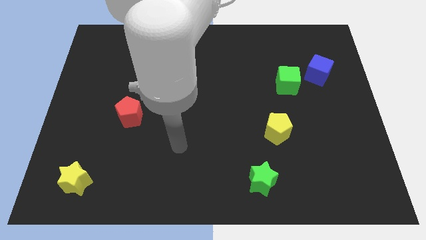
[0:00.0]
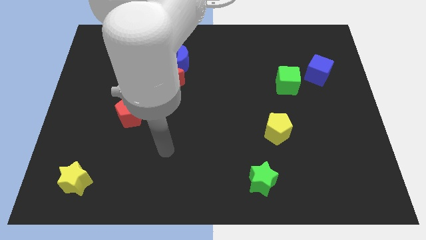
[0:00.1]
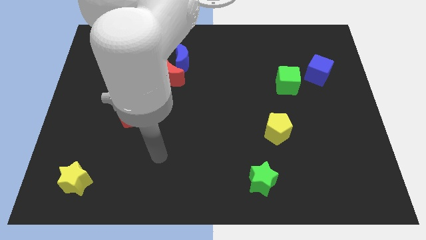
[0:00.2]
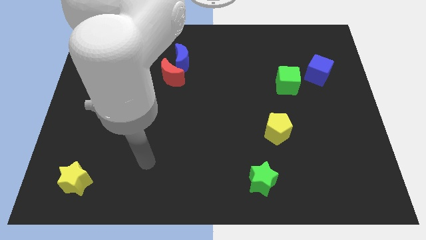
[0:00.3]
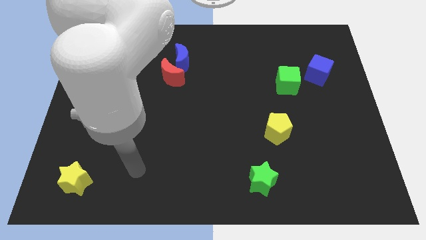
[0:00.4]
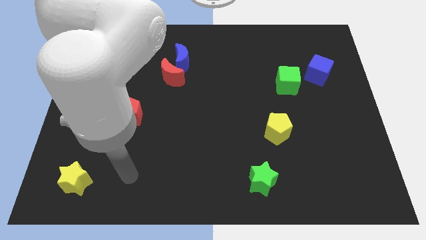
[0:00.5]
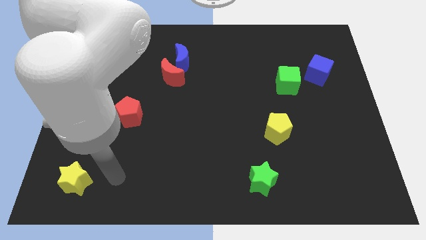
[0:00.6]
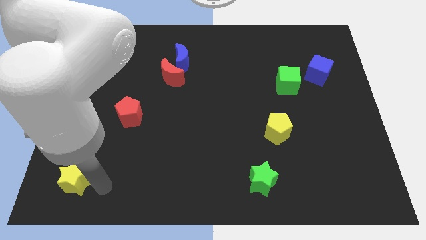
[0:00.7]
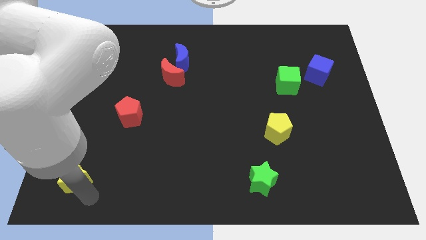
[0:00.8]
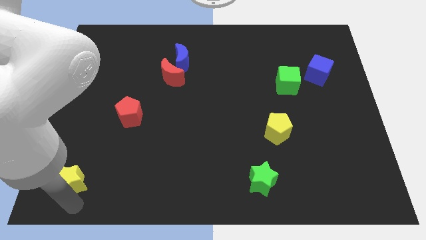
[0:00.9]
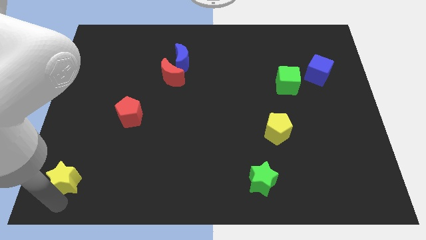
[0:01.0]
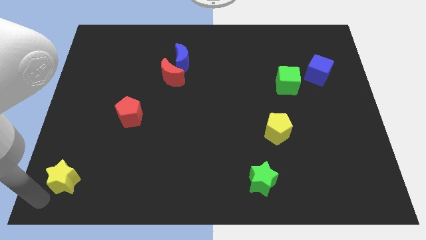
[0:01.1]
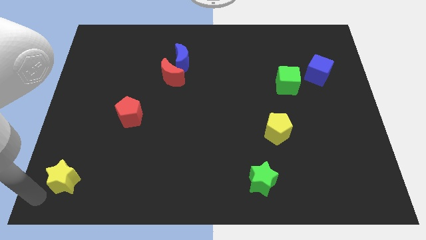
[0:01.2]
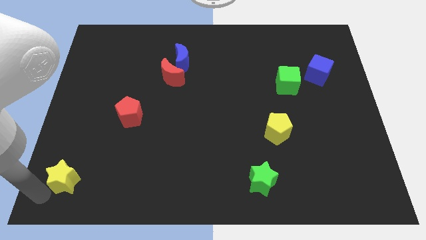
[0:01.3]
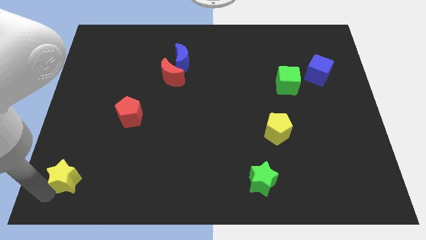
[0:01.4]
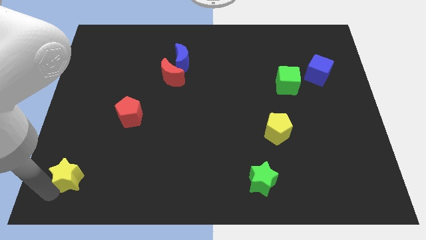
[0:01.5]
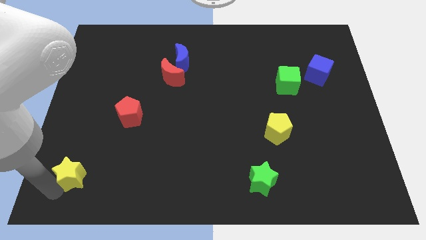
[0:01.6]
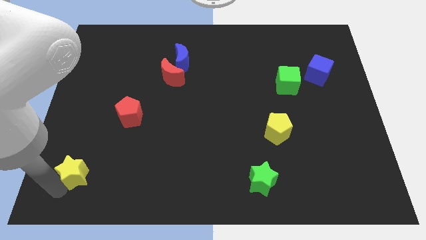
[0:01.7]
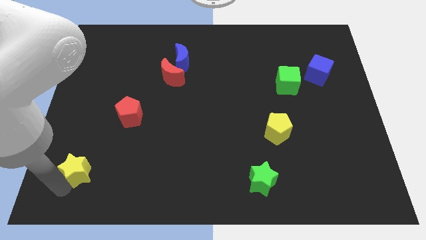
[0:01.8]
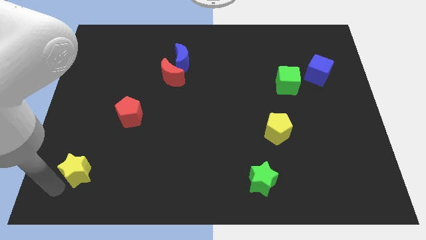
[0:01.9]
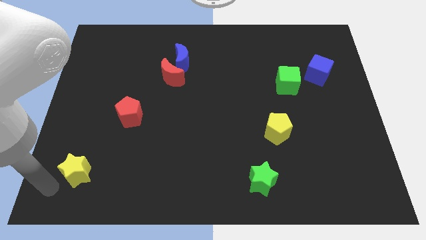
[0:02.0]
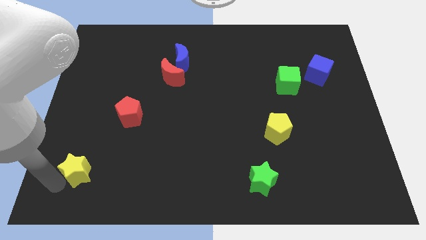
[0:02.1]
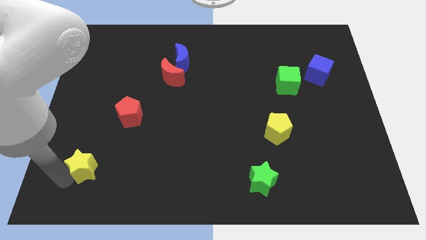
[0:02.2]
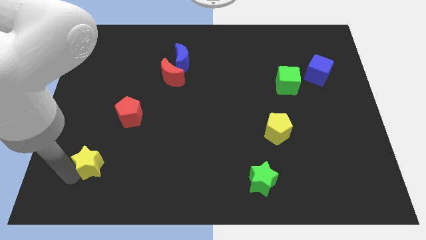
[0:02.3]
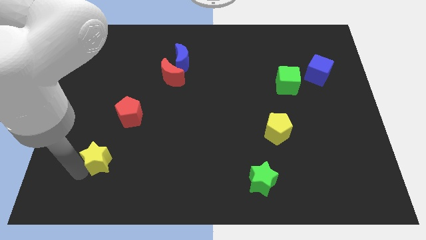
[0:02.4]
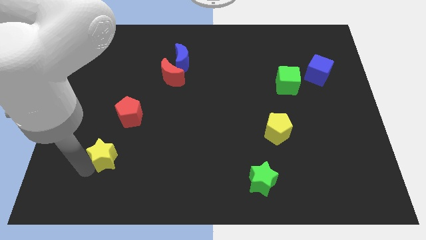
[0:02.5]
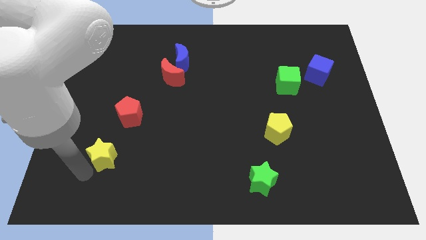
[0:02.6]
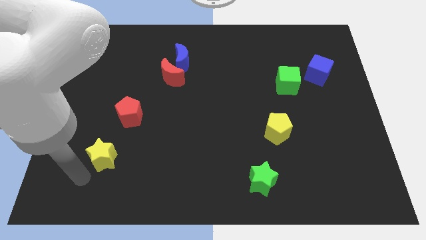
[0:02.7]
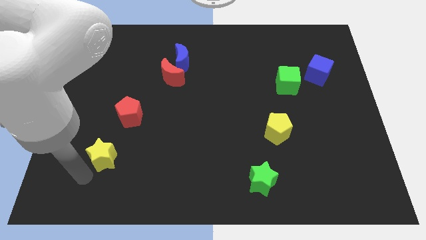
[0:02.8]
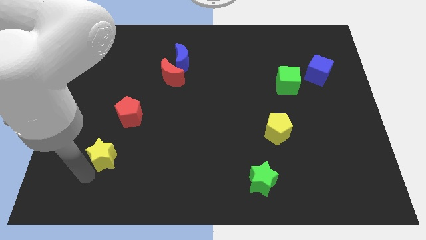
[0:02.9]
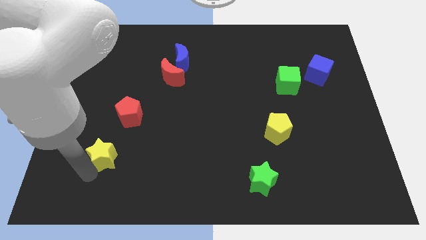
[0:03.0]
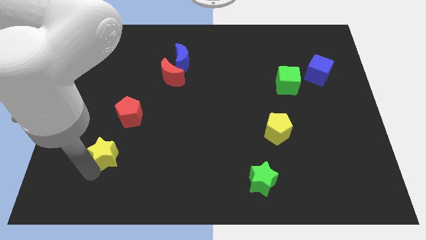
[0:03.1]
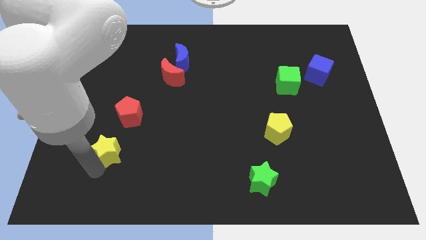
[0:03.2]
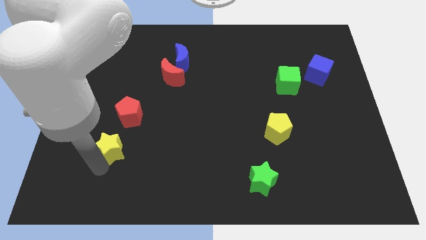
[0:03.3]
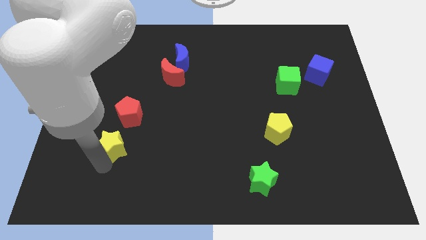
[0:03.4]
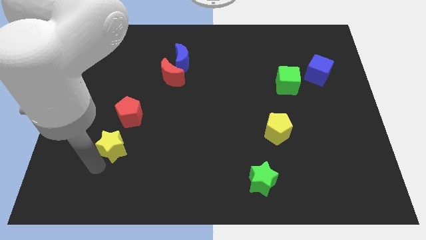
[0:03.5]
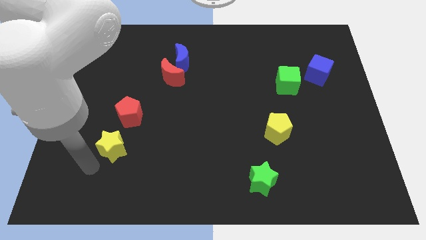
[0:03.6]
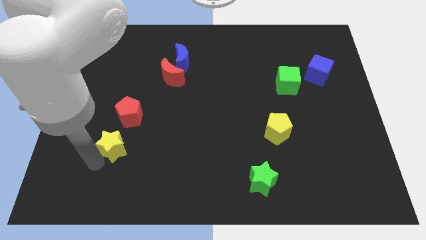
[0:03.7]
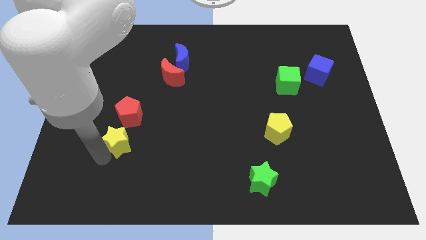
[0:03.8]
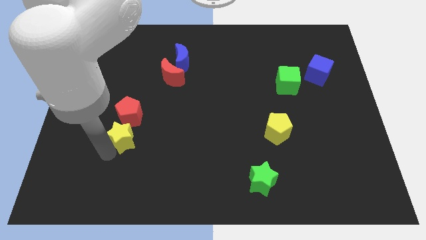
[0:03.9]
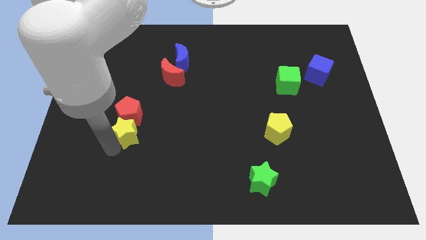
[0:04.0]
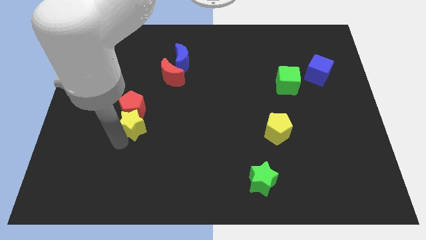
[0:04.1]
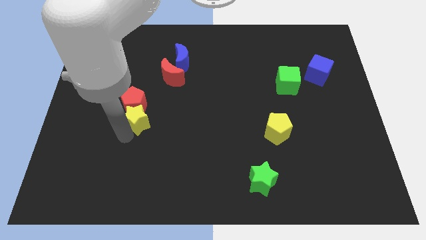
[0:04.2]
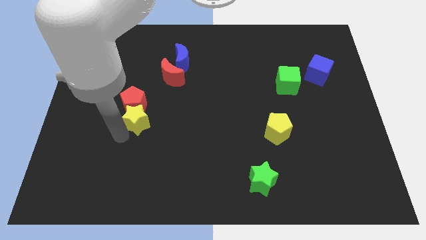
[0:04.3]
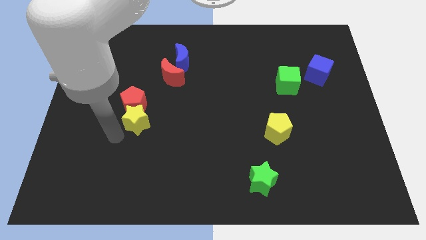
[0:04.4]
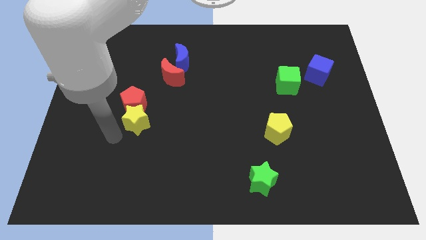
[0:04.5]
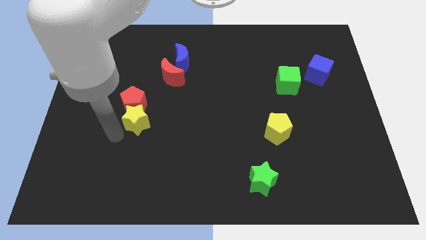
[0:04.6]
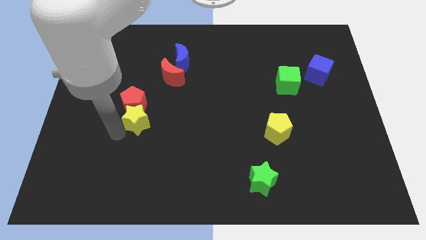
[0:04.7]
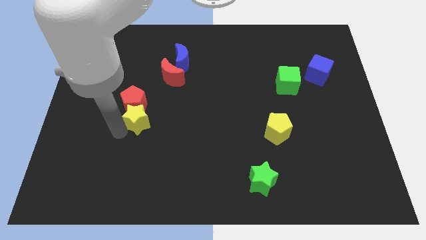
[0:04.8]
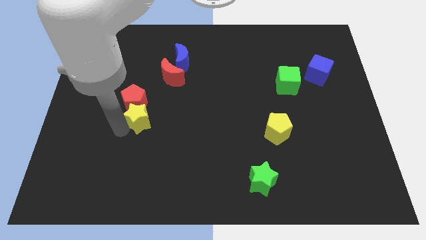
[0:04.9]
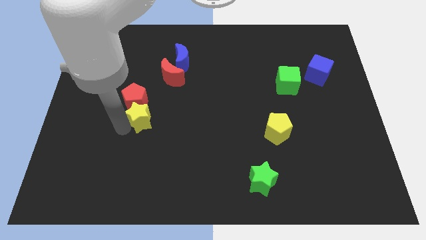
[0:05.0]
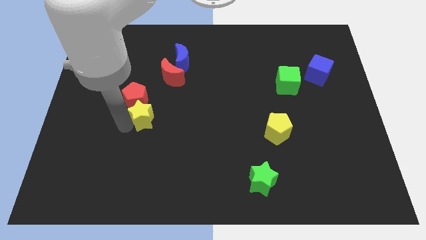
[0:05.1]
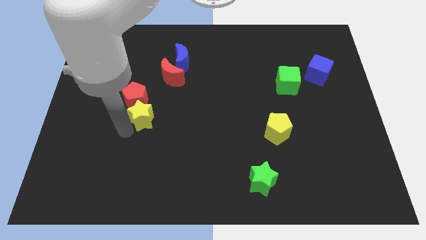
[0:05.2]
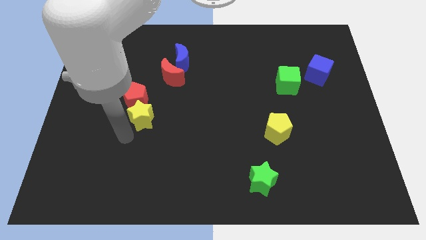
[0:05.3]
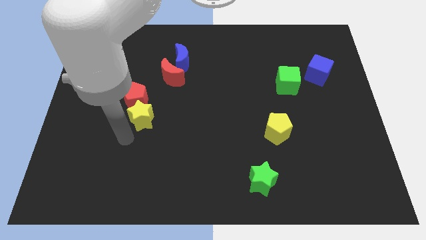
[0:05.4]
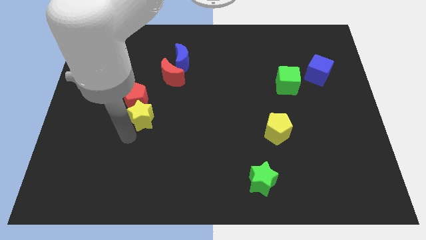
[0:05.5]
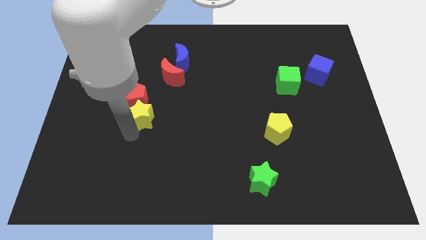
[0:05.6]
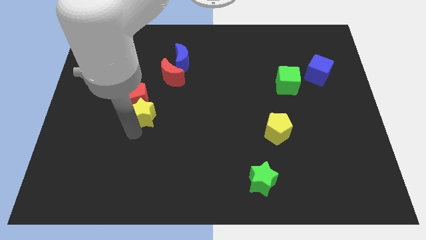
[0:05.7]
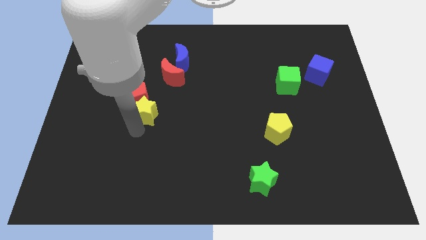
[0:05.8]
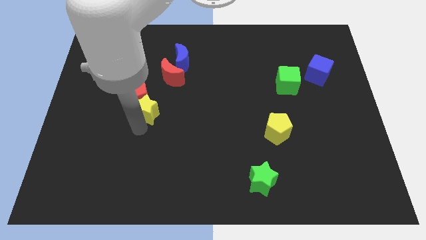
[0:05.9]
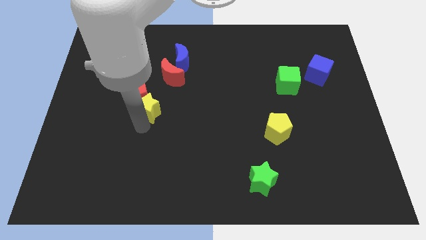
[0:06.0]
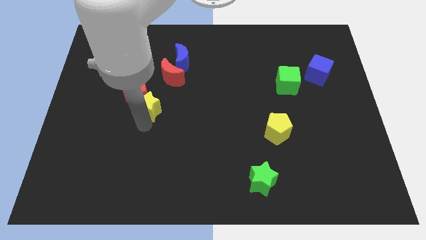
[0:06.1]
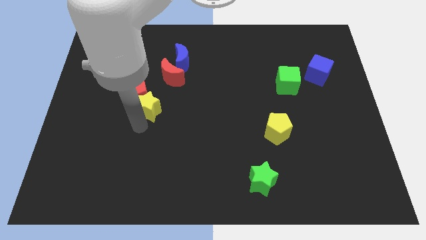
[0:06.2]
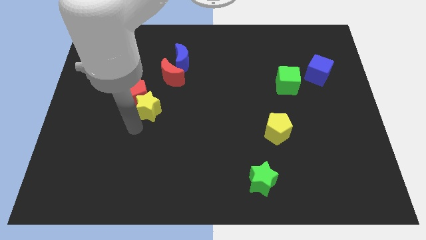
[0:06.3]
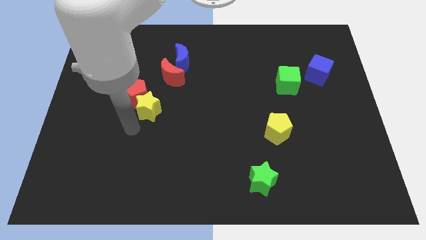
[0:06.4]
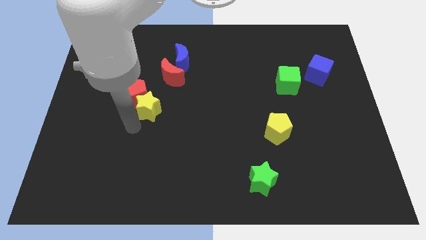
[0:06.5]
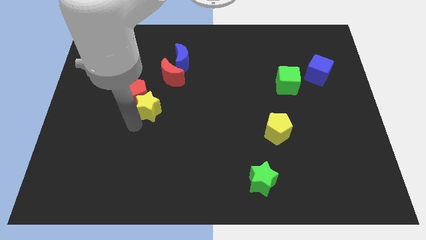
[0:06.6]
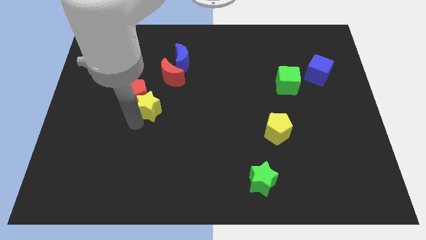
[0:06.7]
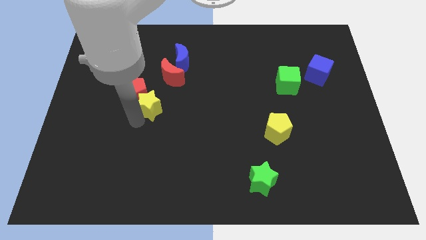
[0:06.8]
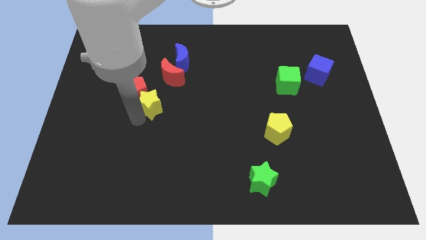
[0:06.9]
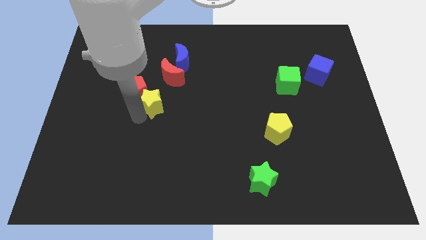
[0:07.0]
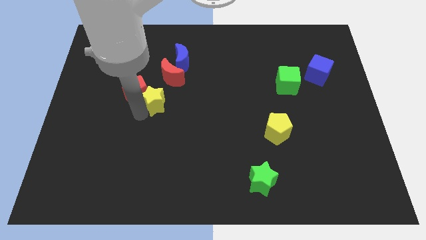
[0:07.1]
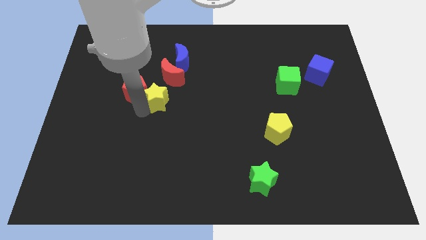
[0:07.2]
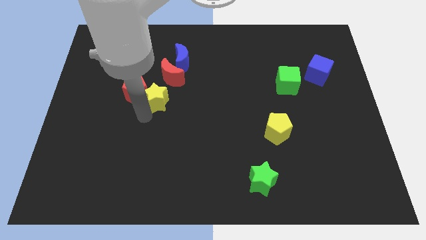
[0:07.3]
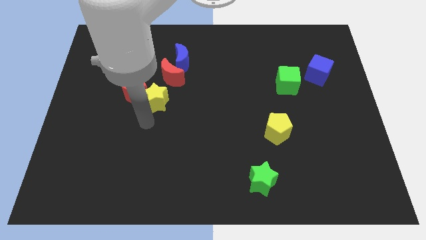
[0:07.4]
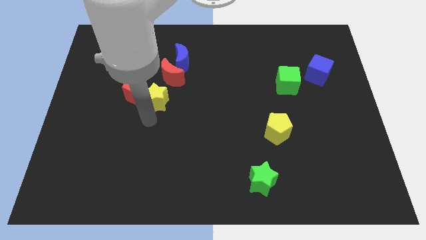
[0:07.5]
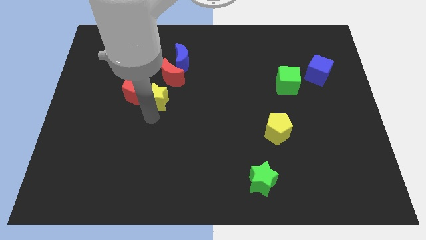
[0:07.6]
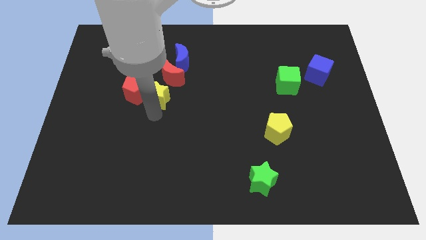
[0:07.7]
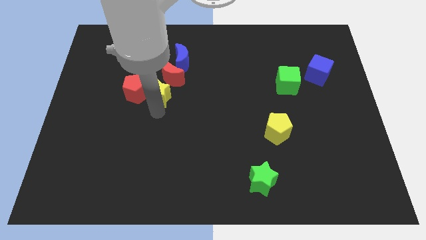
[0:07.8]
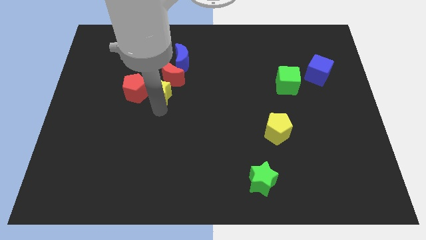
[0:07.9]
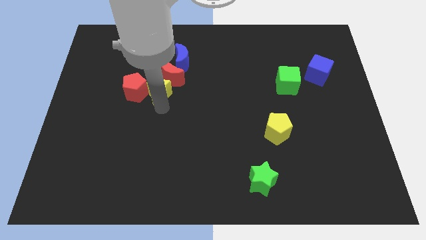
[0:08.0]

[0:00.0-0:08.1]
slide the yellow star next to the red moon
